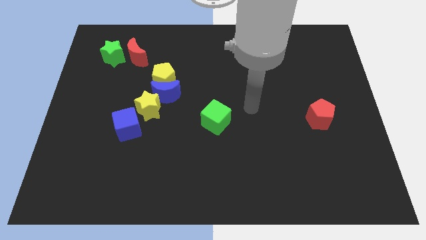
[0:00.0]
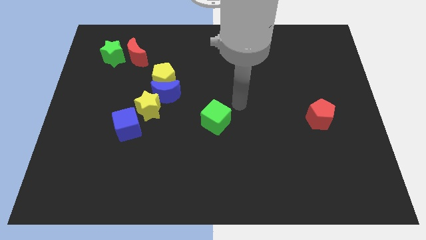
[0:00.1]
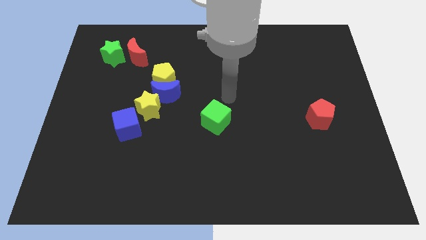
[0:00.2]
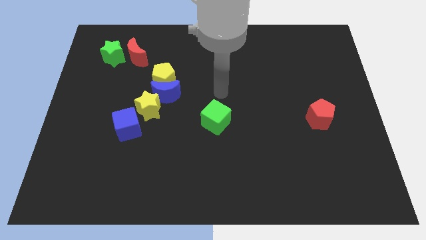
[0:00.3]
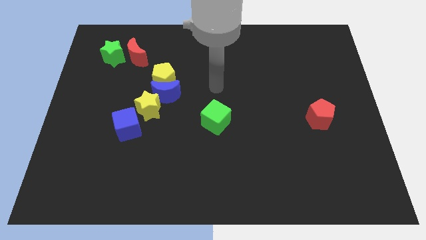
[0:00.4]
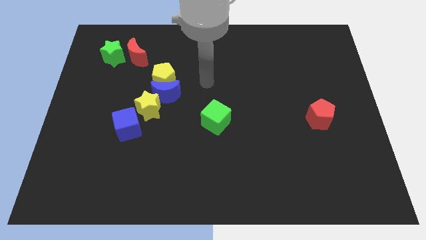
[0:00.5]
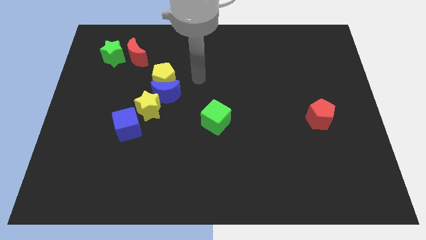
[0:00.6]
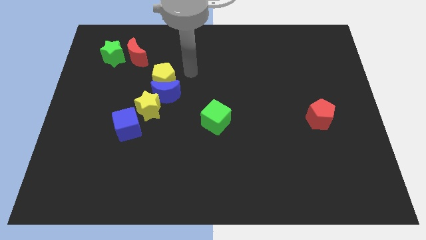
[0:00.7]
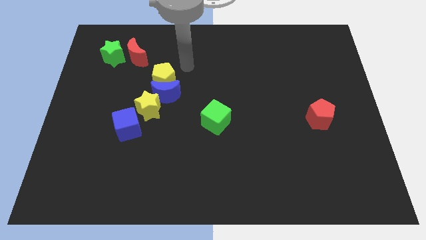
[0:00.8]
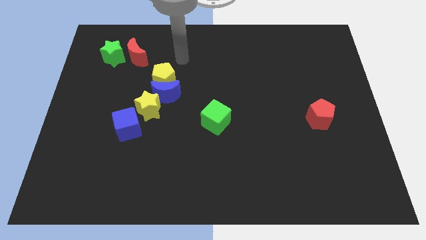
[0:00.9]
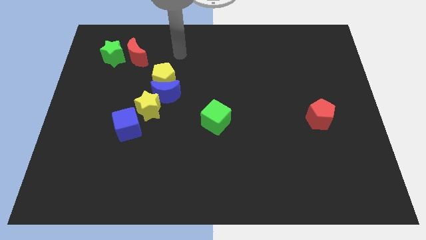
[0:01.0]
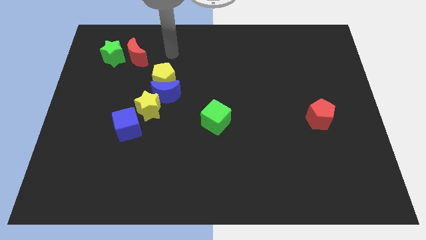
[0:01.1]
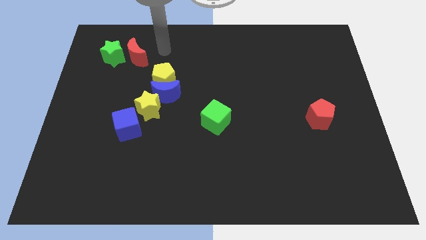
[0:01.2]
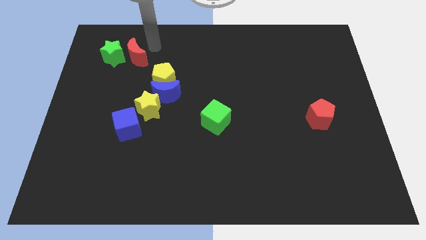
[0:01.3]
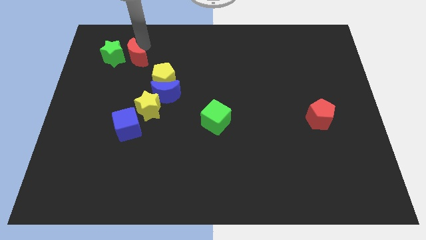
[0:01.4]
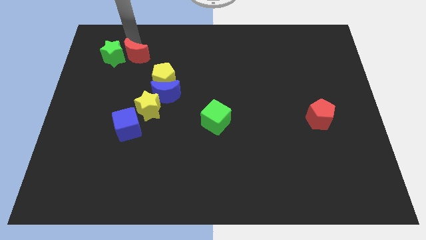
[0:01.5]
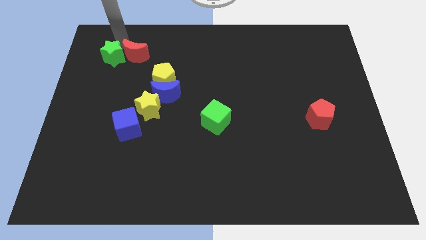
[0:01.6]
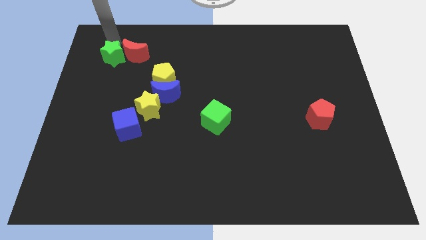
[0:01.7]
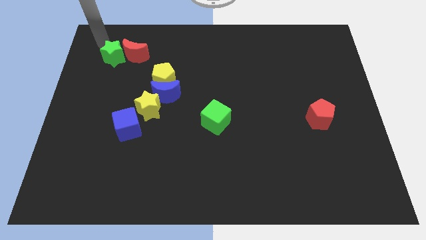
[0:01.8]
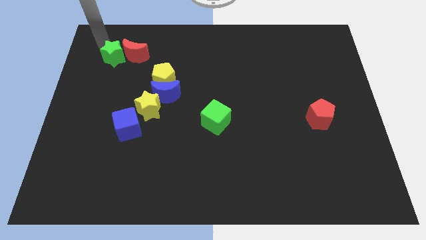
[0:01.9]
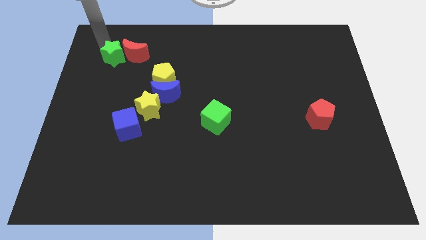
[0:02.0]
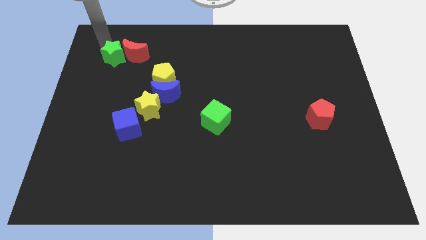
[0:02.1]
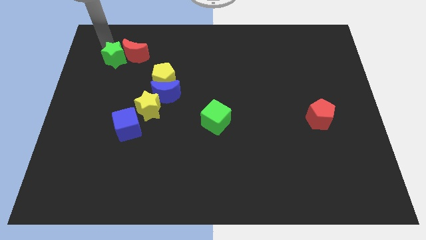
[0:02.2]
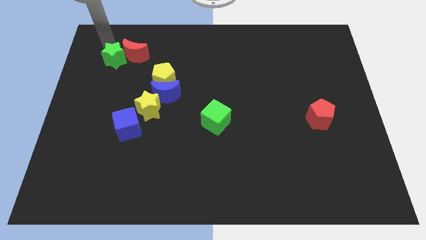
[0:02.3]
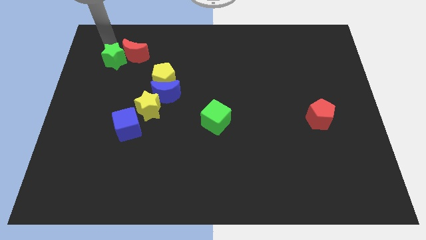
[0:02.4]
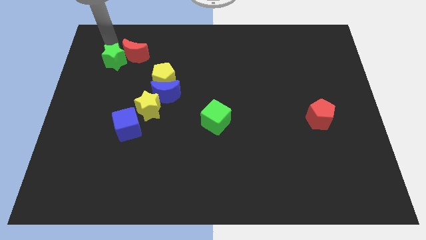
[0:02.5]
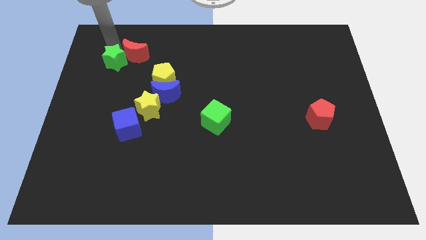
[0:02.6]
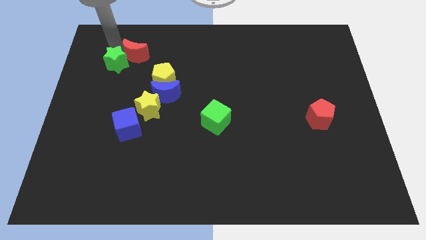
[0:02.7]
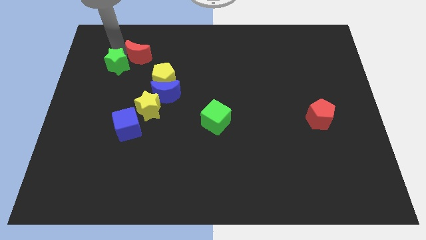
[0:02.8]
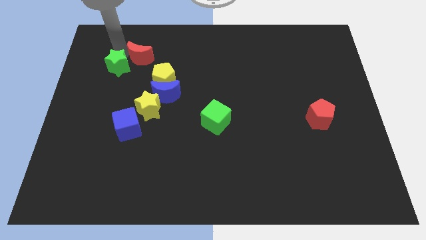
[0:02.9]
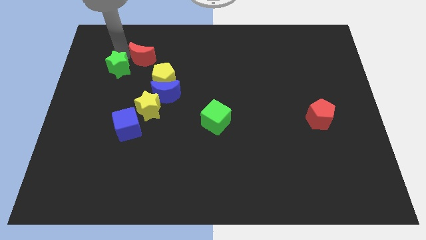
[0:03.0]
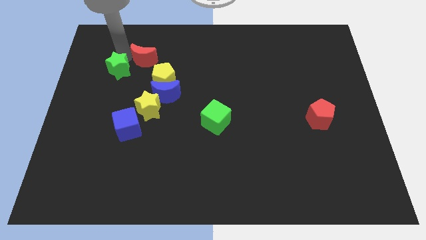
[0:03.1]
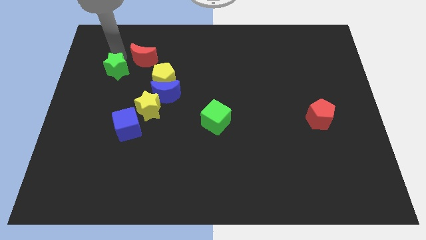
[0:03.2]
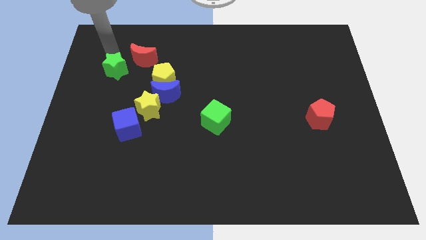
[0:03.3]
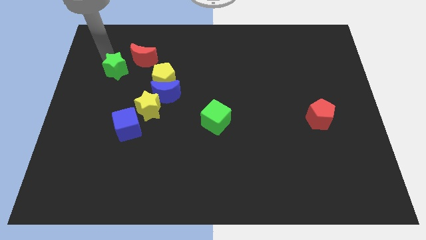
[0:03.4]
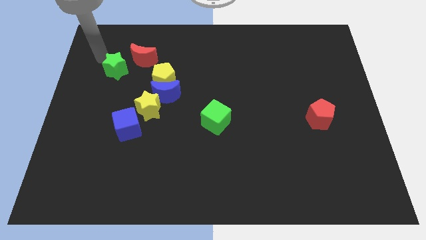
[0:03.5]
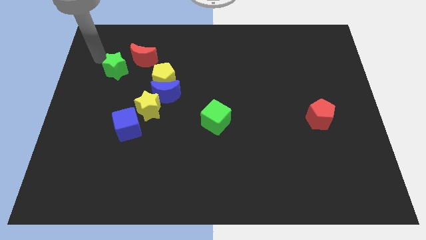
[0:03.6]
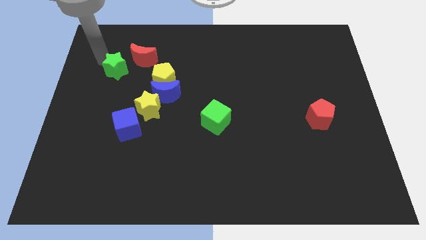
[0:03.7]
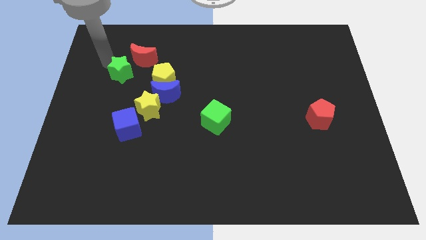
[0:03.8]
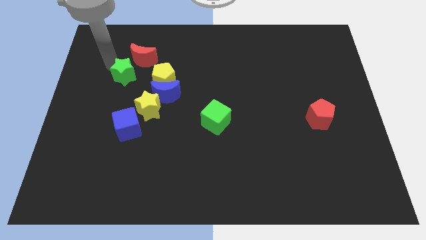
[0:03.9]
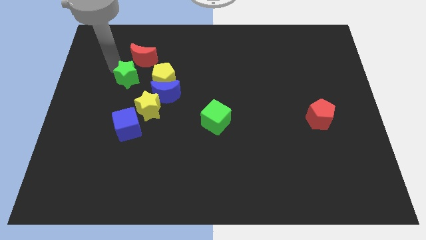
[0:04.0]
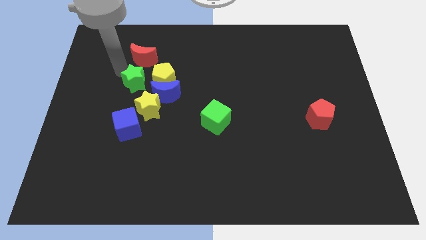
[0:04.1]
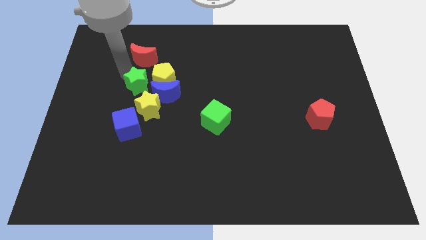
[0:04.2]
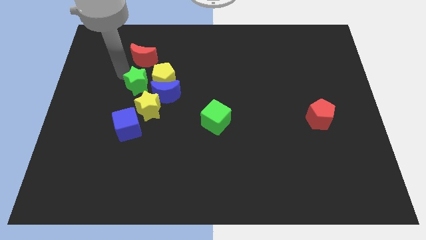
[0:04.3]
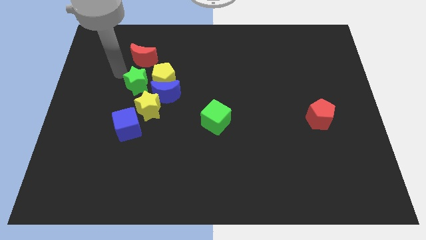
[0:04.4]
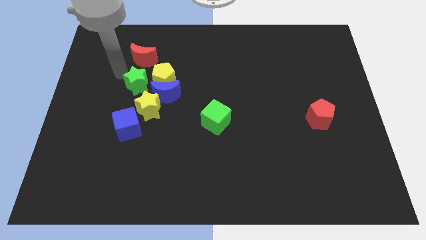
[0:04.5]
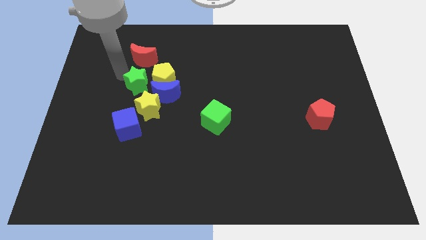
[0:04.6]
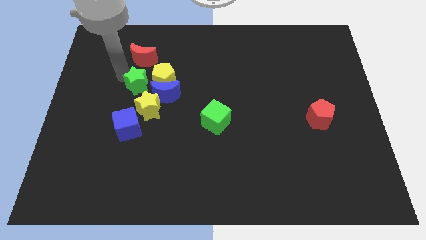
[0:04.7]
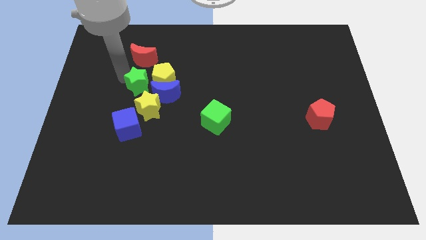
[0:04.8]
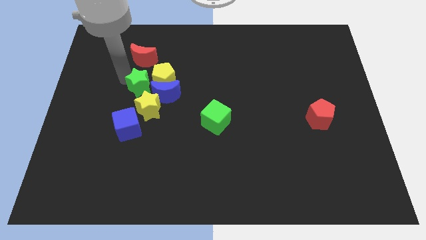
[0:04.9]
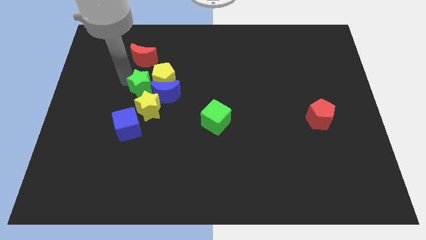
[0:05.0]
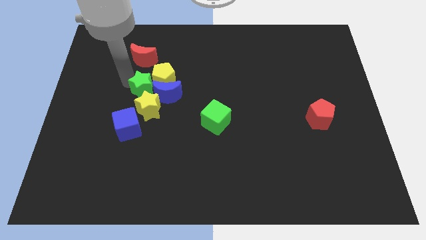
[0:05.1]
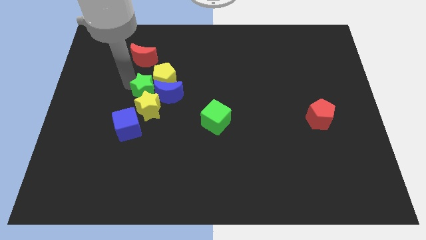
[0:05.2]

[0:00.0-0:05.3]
move the green star towards the blue moon

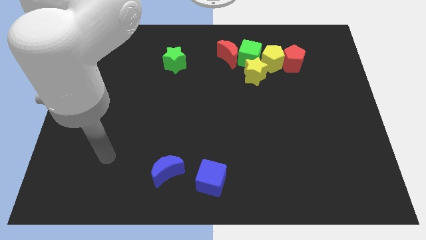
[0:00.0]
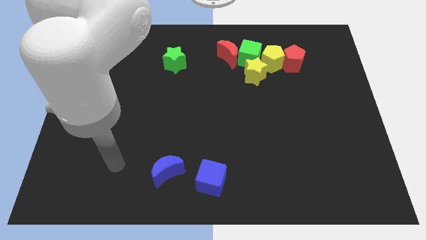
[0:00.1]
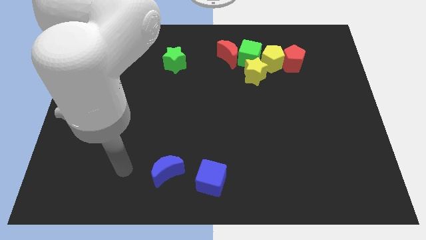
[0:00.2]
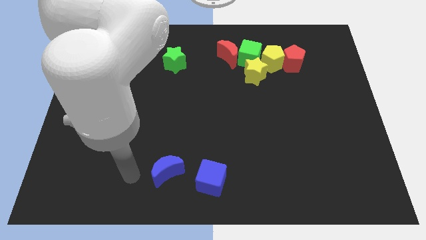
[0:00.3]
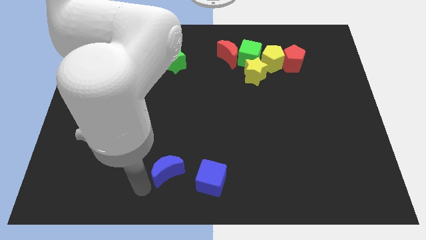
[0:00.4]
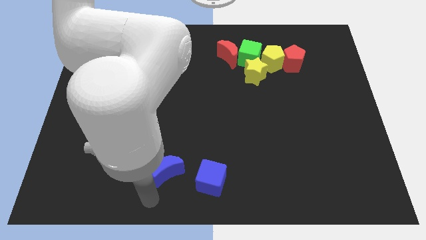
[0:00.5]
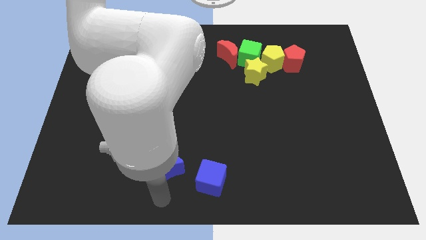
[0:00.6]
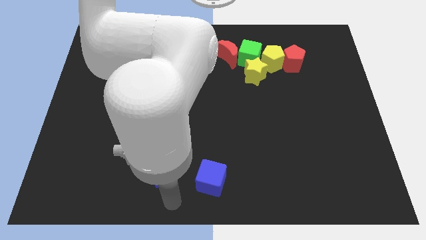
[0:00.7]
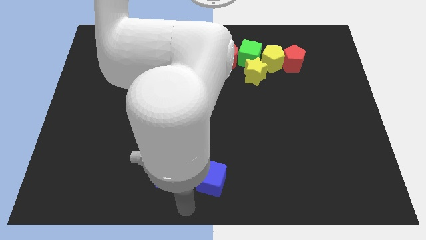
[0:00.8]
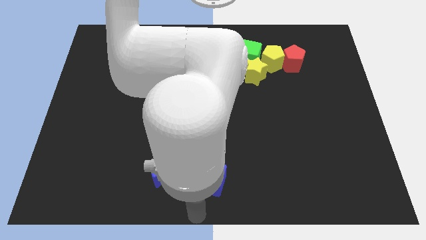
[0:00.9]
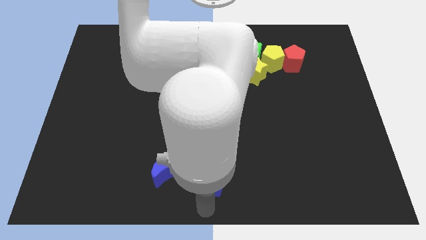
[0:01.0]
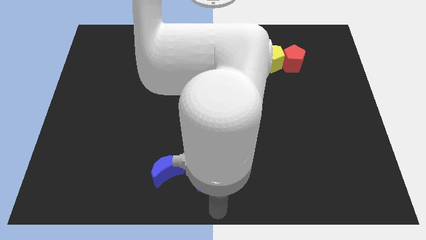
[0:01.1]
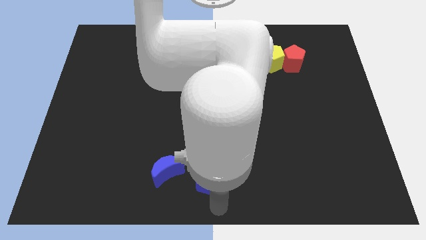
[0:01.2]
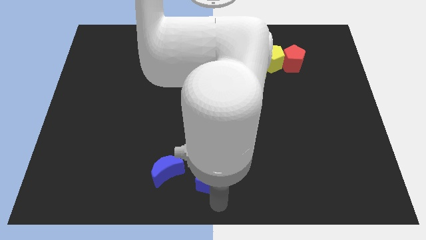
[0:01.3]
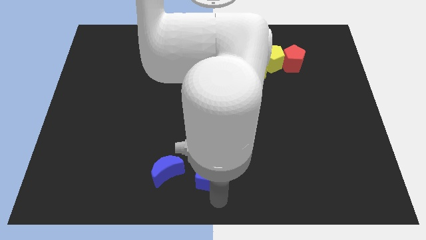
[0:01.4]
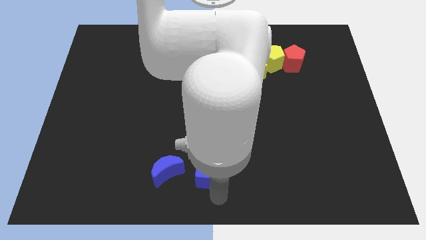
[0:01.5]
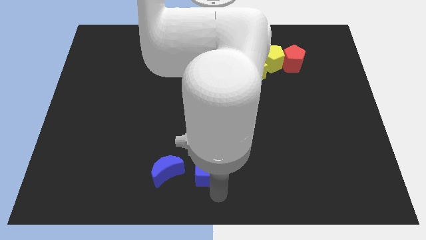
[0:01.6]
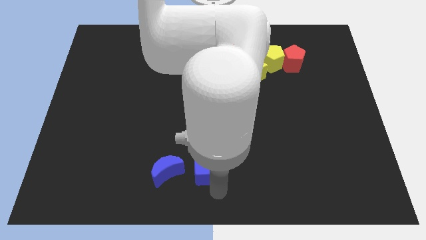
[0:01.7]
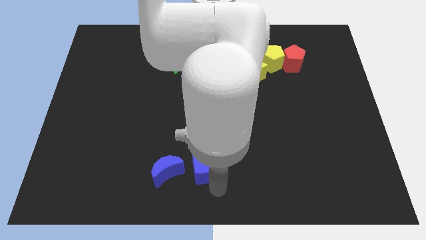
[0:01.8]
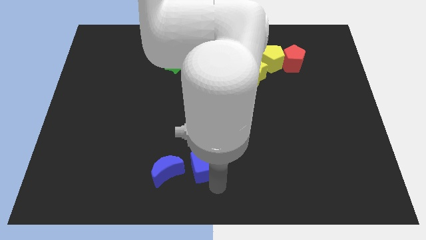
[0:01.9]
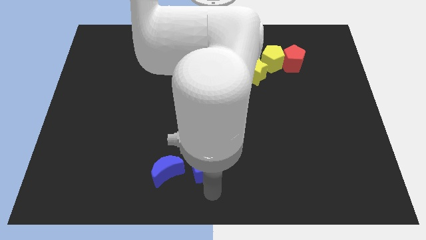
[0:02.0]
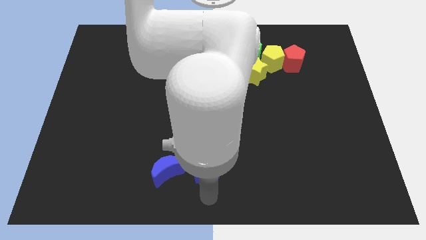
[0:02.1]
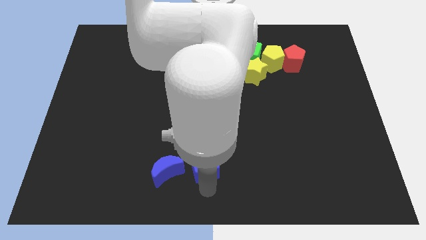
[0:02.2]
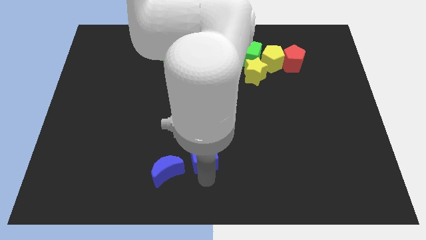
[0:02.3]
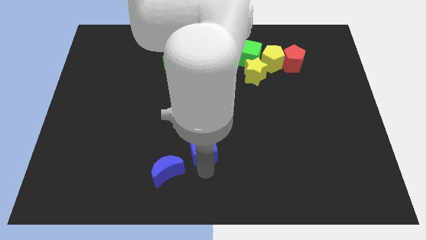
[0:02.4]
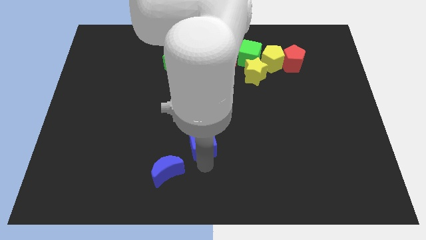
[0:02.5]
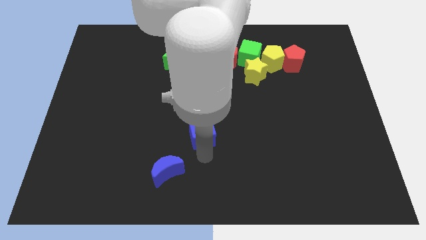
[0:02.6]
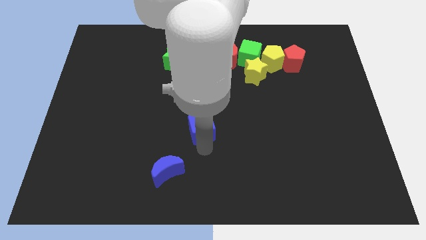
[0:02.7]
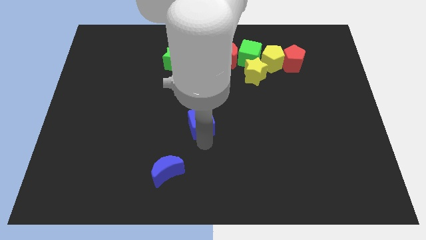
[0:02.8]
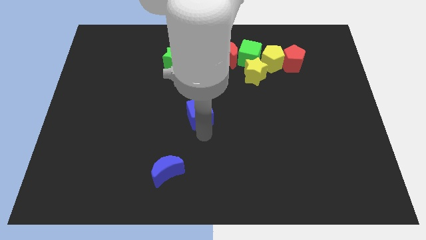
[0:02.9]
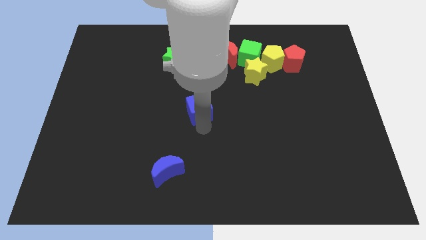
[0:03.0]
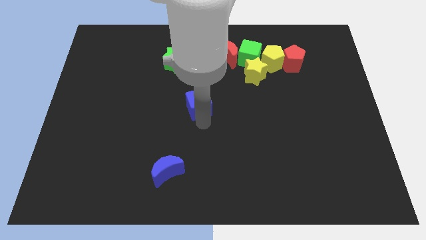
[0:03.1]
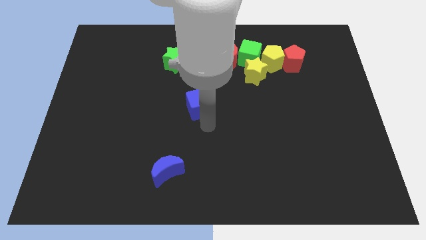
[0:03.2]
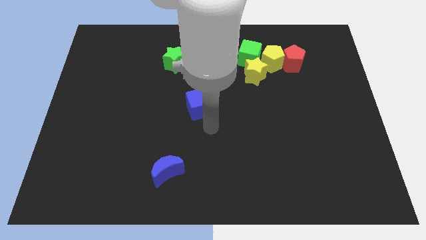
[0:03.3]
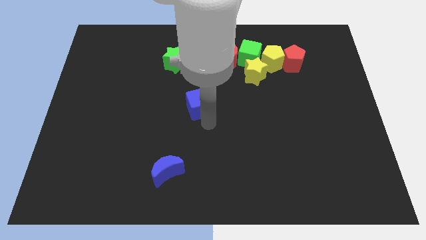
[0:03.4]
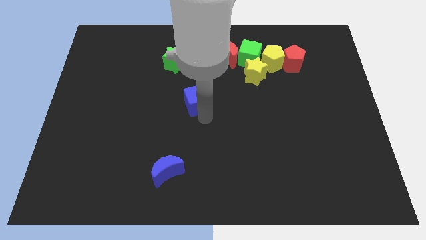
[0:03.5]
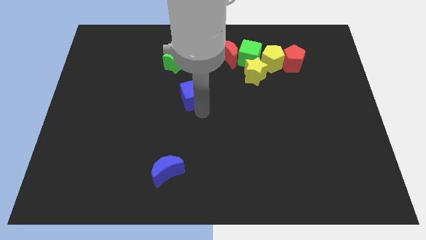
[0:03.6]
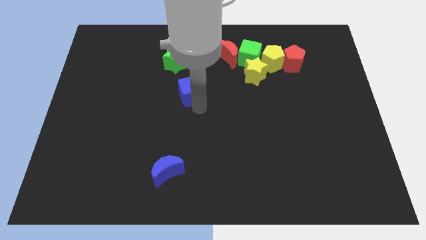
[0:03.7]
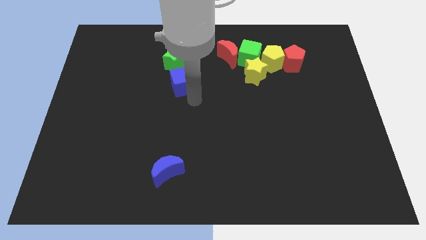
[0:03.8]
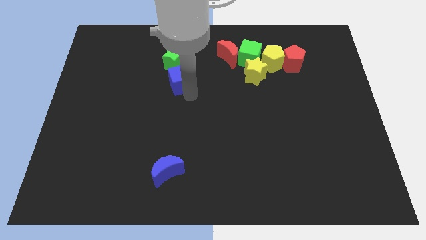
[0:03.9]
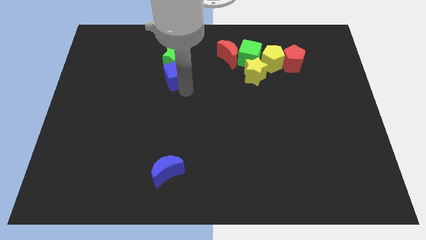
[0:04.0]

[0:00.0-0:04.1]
put the blue cube next to the green star
